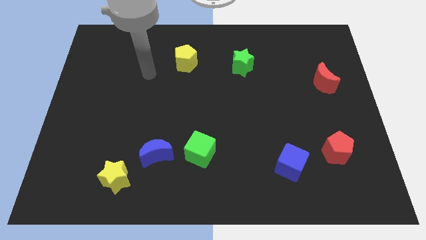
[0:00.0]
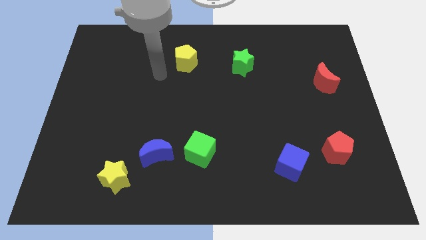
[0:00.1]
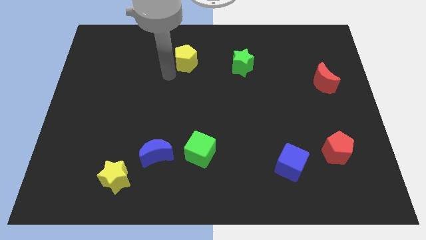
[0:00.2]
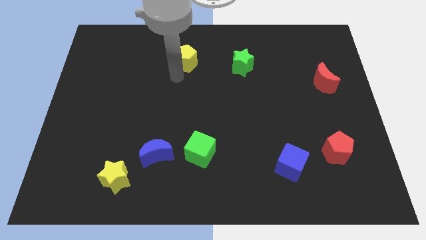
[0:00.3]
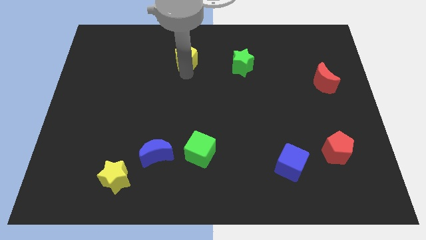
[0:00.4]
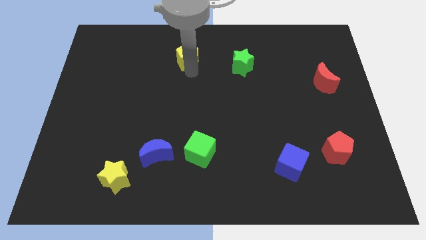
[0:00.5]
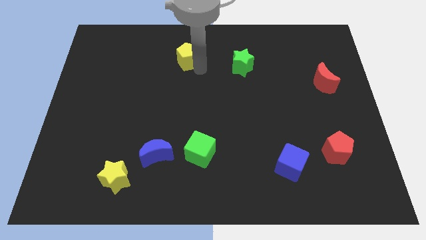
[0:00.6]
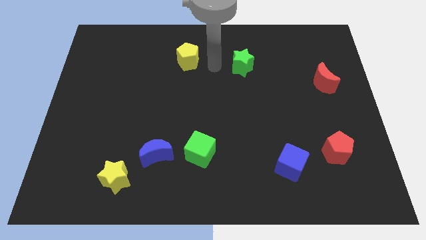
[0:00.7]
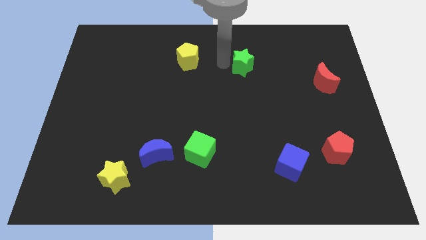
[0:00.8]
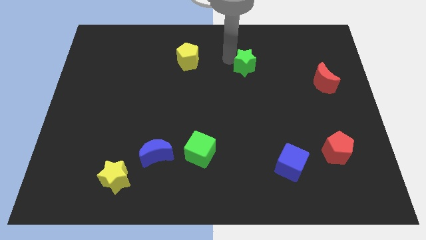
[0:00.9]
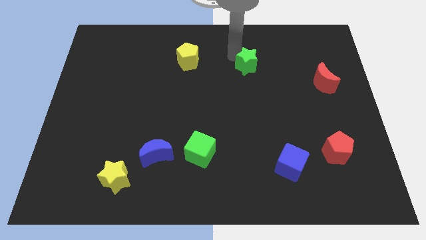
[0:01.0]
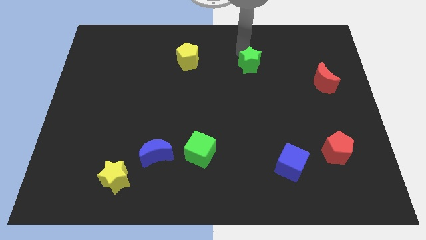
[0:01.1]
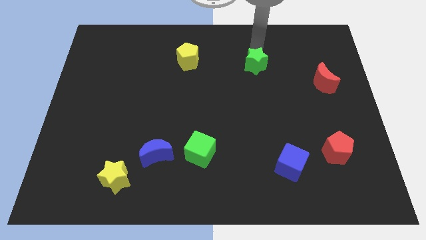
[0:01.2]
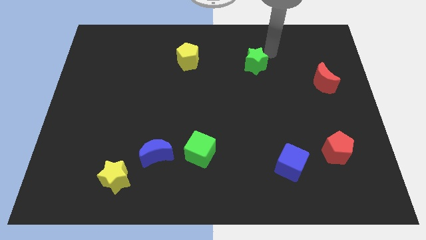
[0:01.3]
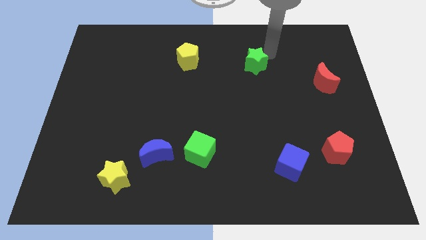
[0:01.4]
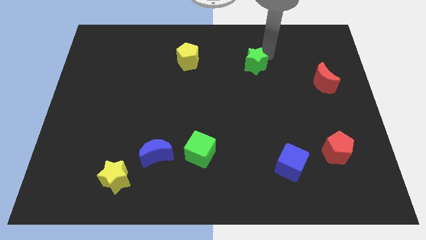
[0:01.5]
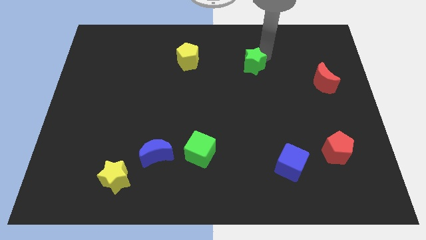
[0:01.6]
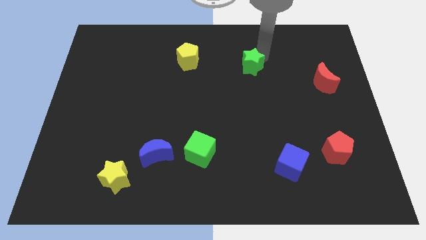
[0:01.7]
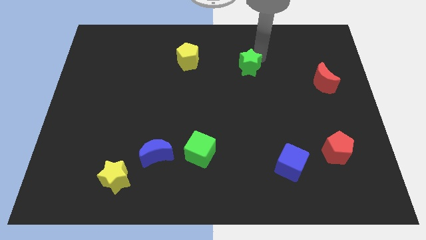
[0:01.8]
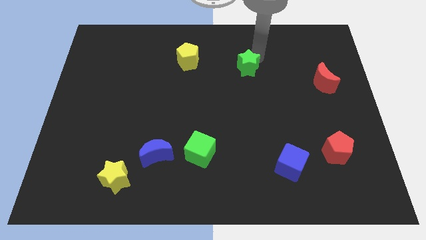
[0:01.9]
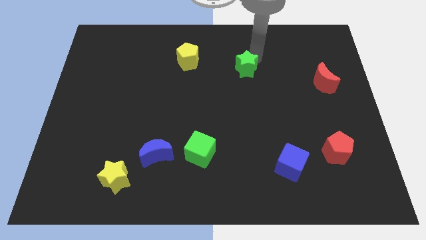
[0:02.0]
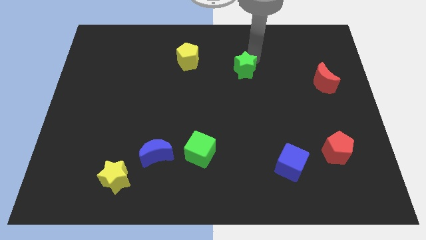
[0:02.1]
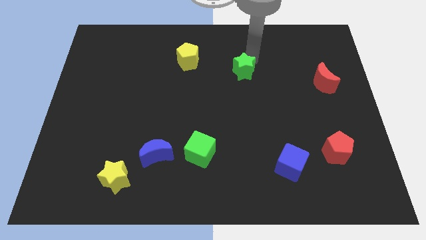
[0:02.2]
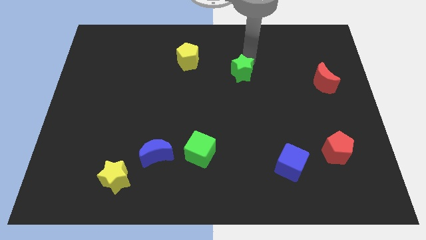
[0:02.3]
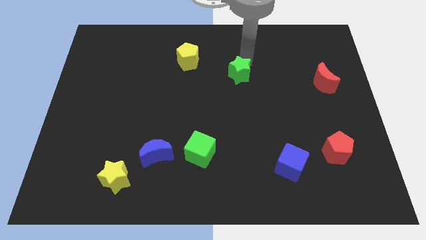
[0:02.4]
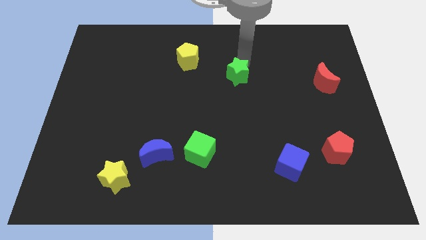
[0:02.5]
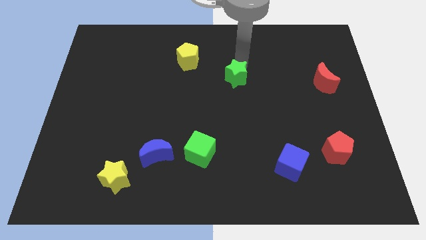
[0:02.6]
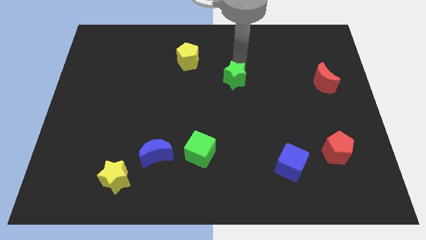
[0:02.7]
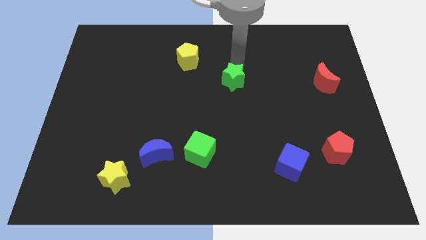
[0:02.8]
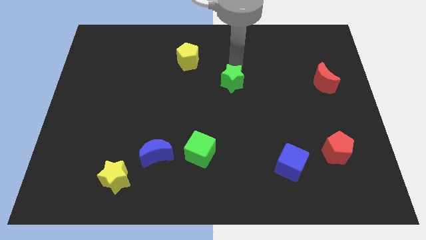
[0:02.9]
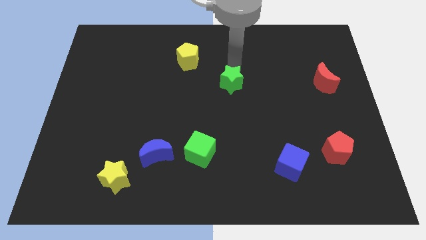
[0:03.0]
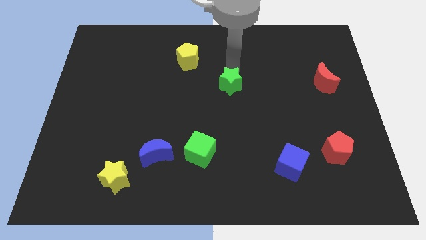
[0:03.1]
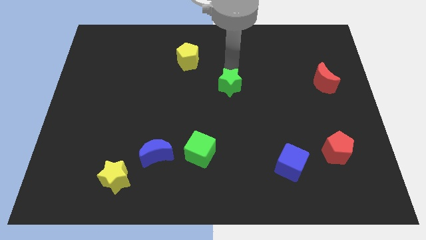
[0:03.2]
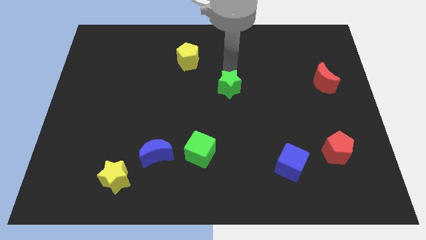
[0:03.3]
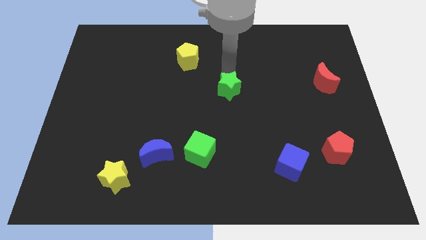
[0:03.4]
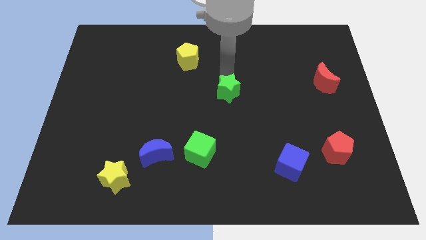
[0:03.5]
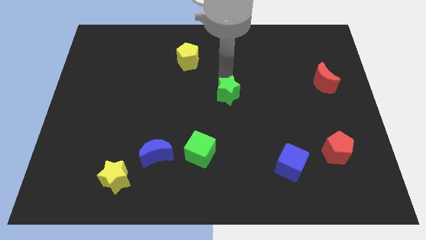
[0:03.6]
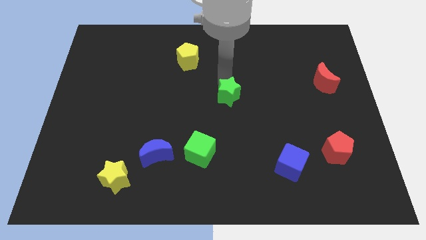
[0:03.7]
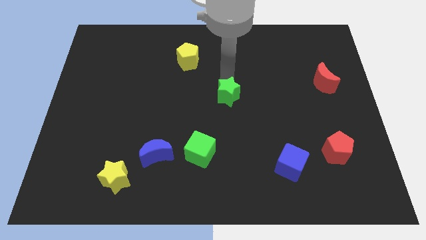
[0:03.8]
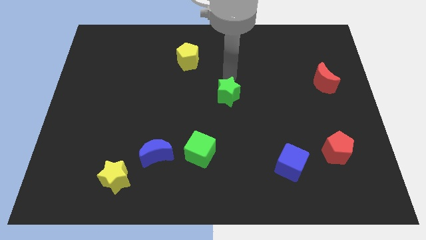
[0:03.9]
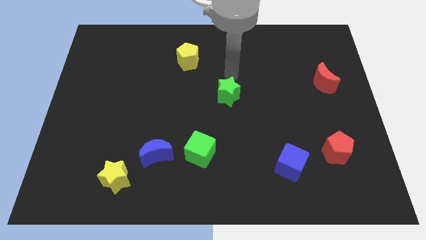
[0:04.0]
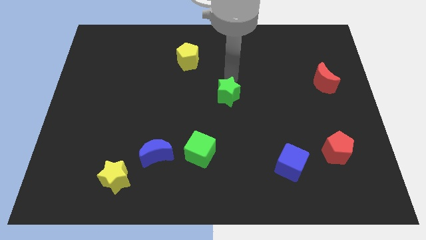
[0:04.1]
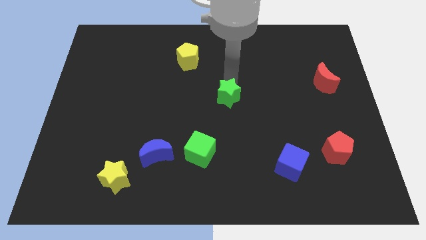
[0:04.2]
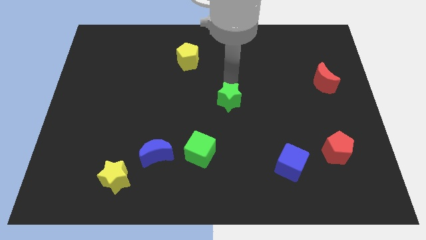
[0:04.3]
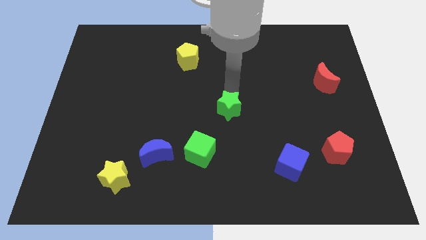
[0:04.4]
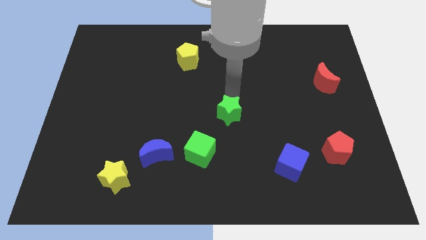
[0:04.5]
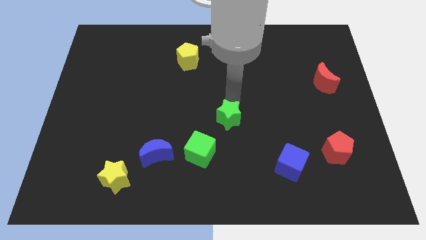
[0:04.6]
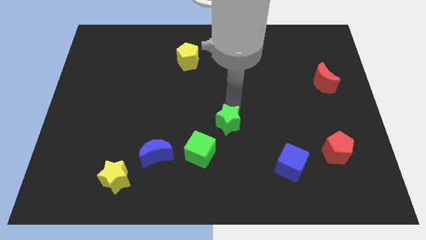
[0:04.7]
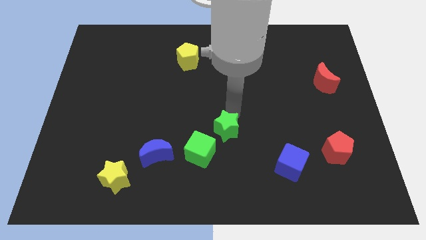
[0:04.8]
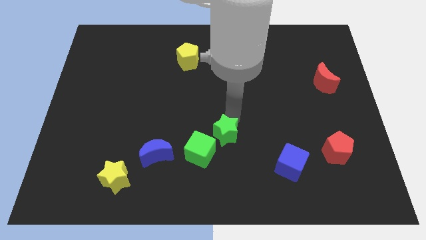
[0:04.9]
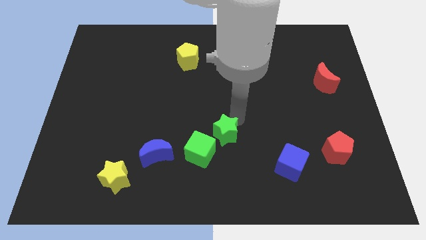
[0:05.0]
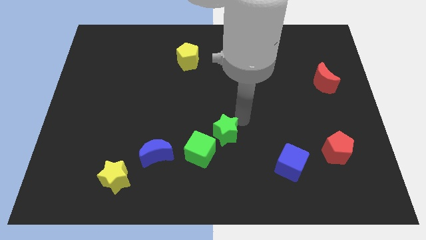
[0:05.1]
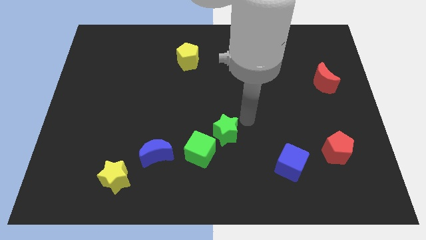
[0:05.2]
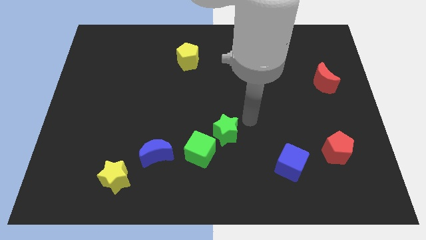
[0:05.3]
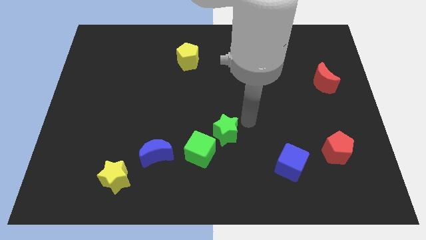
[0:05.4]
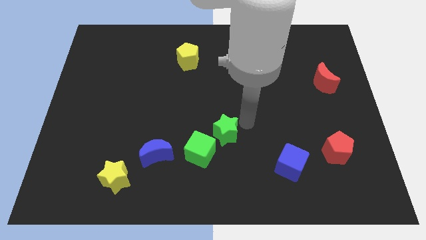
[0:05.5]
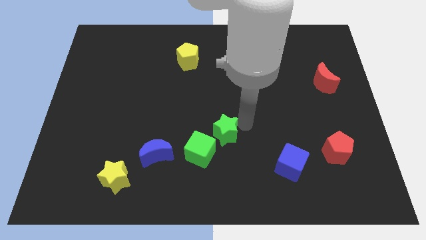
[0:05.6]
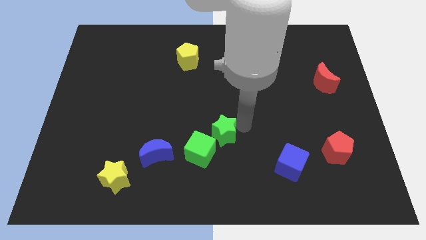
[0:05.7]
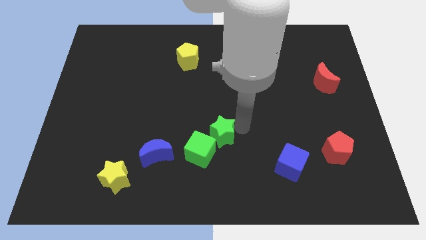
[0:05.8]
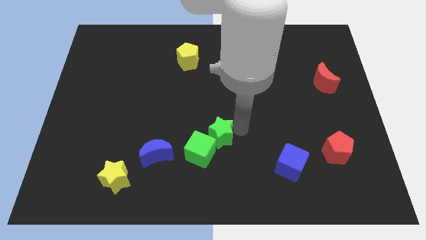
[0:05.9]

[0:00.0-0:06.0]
put the green star close to the green cube

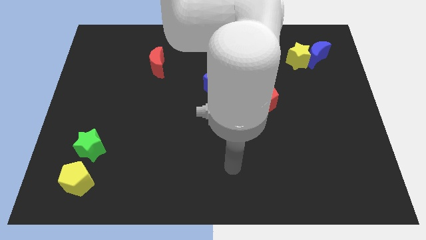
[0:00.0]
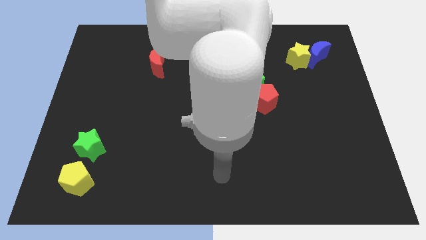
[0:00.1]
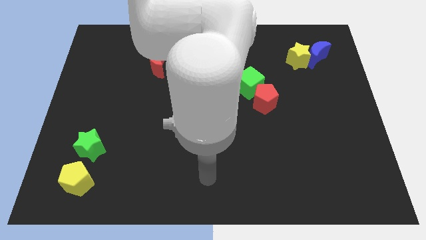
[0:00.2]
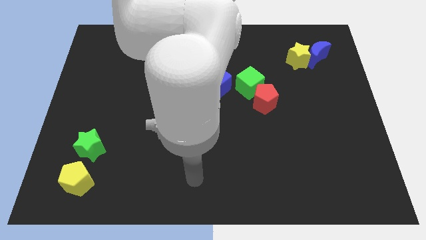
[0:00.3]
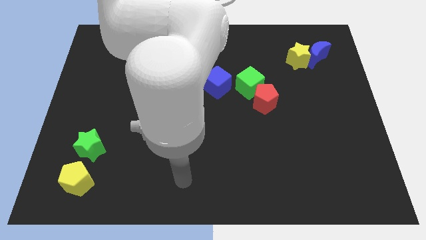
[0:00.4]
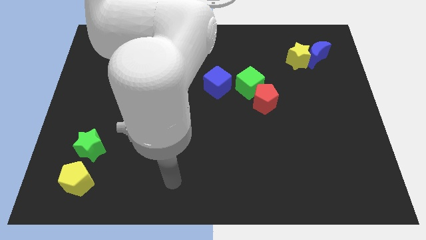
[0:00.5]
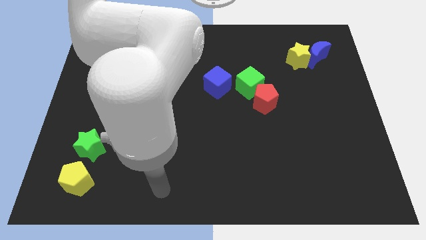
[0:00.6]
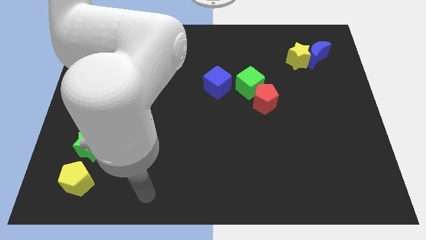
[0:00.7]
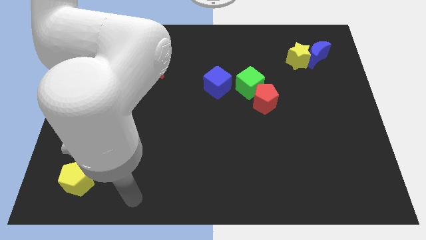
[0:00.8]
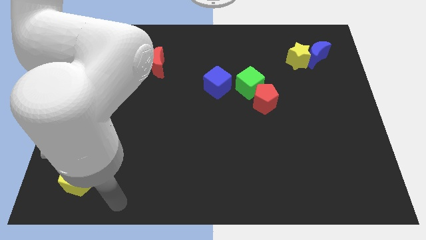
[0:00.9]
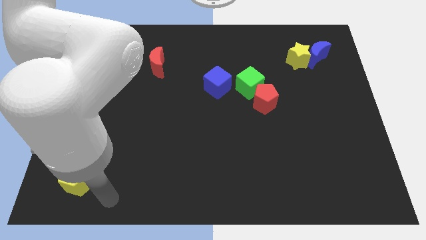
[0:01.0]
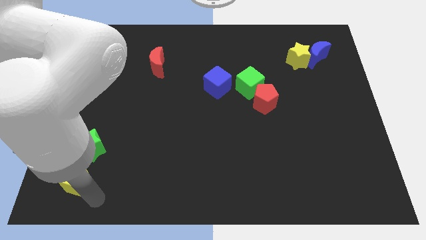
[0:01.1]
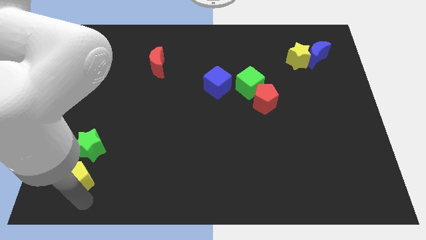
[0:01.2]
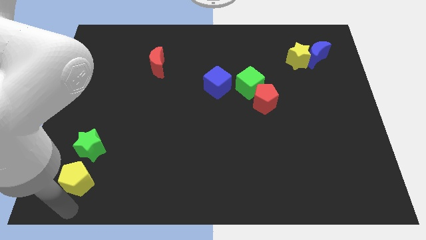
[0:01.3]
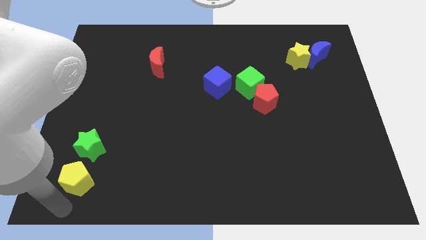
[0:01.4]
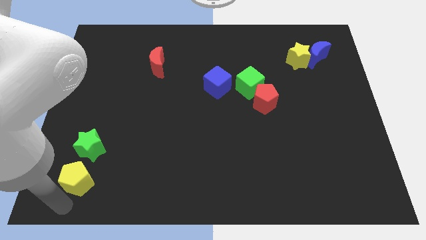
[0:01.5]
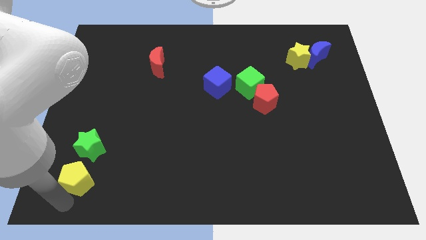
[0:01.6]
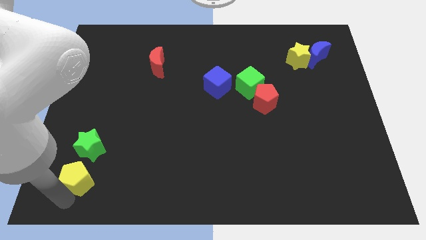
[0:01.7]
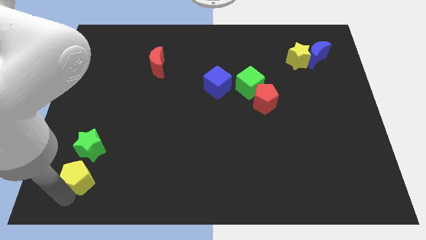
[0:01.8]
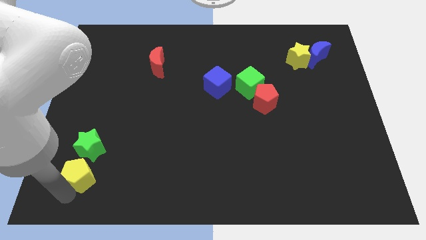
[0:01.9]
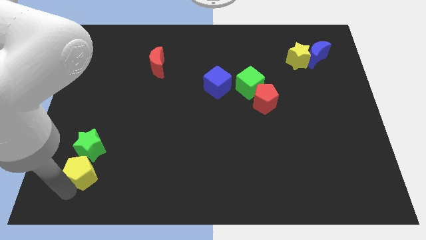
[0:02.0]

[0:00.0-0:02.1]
push the yellow pentagon towards the green star
